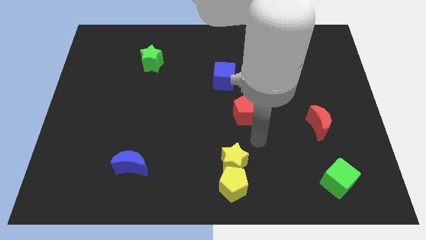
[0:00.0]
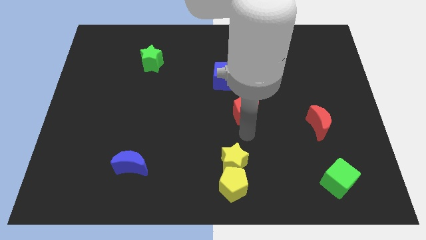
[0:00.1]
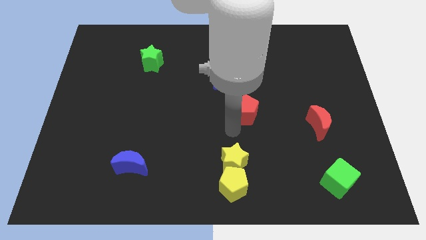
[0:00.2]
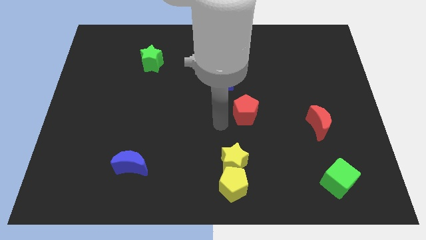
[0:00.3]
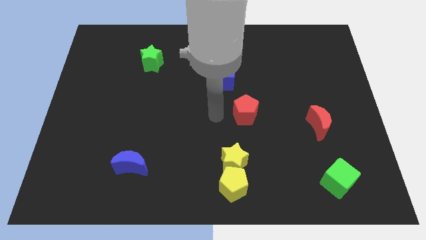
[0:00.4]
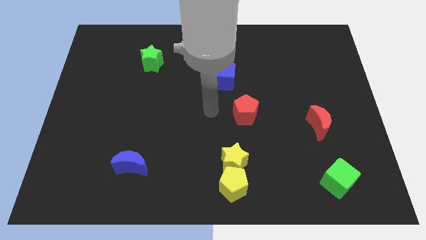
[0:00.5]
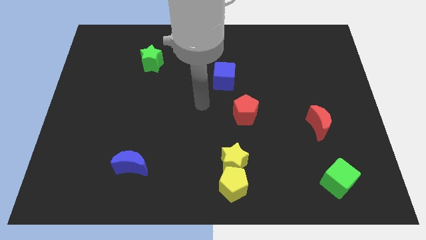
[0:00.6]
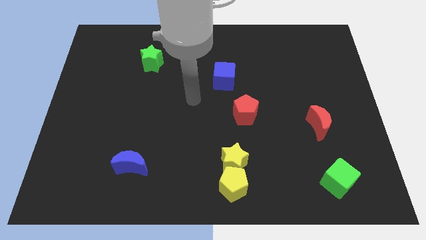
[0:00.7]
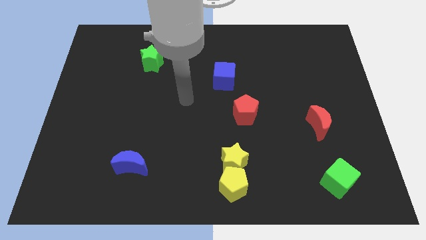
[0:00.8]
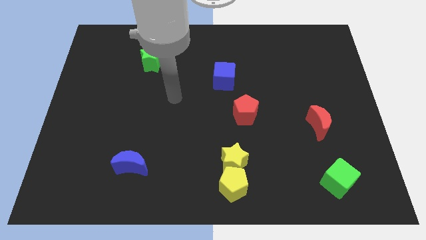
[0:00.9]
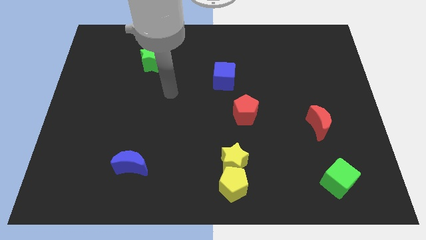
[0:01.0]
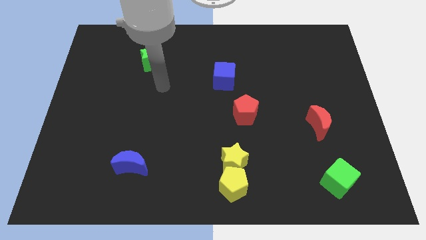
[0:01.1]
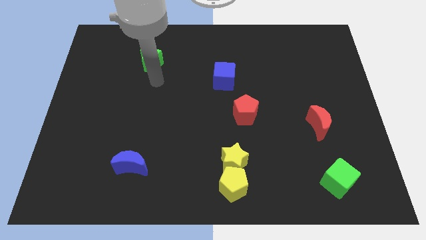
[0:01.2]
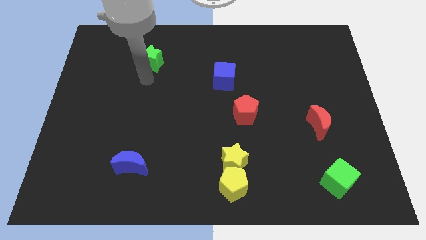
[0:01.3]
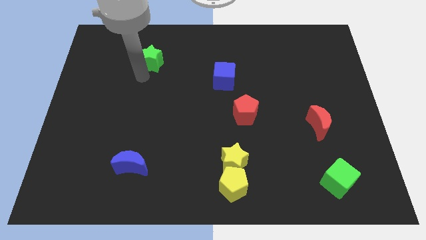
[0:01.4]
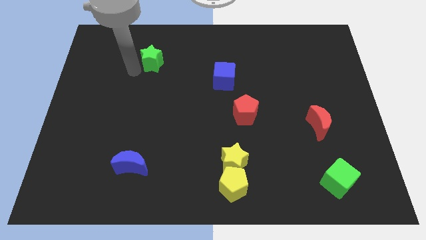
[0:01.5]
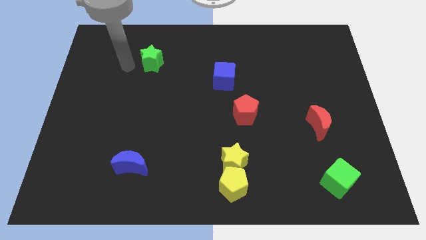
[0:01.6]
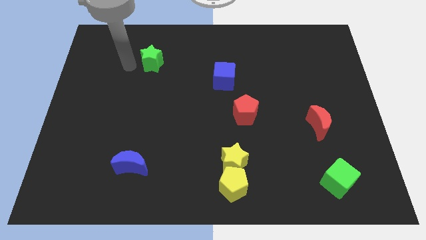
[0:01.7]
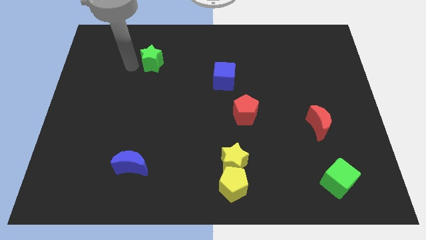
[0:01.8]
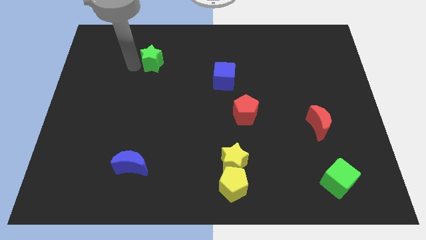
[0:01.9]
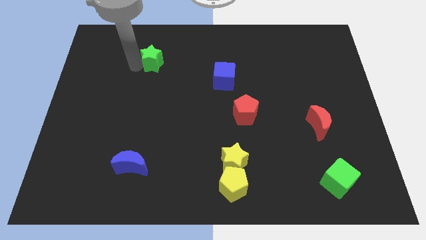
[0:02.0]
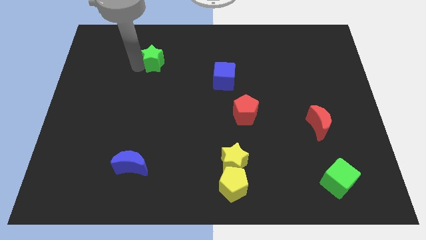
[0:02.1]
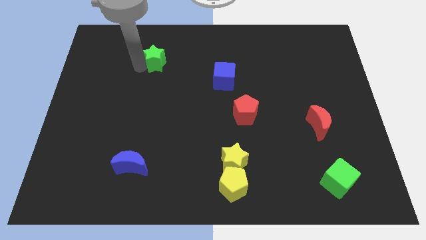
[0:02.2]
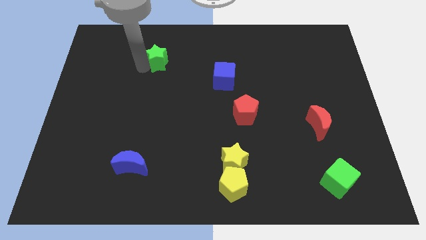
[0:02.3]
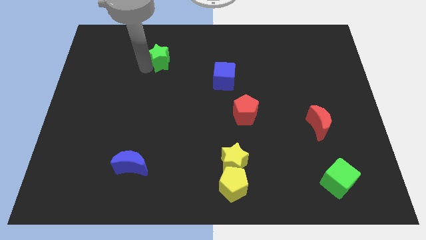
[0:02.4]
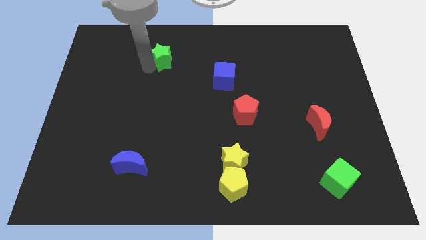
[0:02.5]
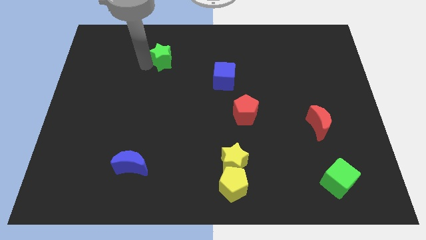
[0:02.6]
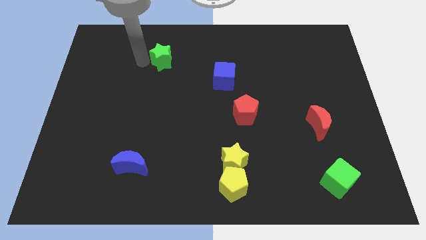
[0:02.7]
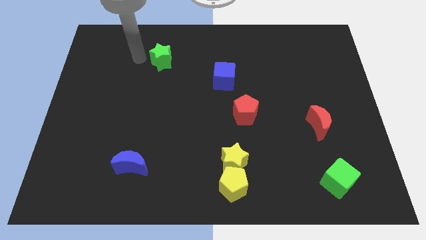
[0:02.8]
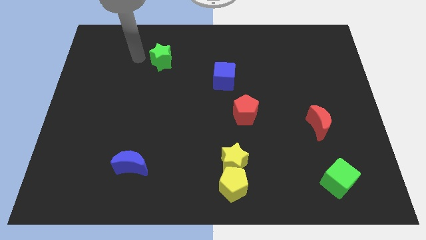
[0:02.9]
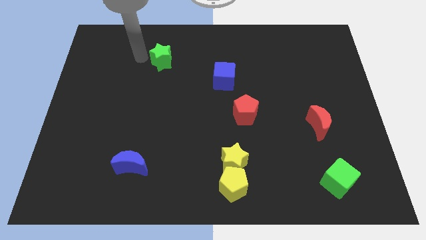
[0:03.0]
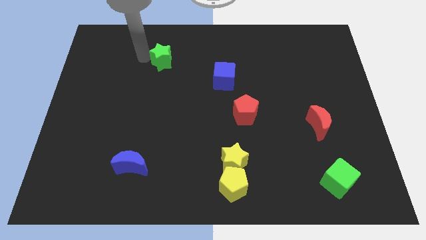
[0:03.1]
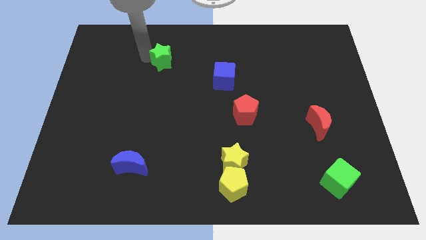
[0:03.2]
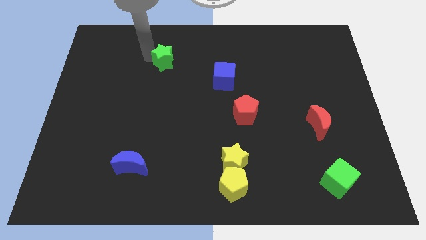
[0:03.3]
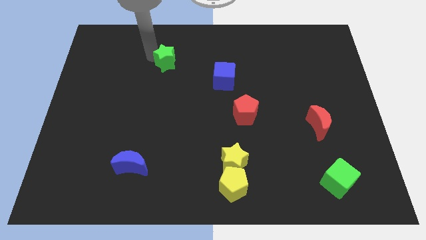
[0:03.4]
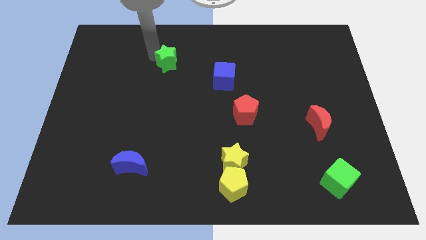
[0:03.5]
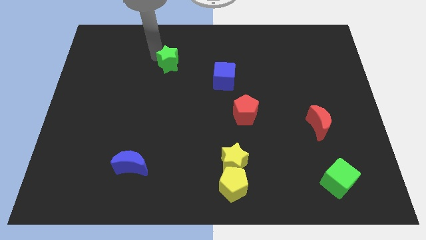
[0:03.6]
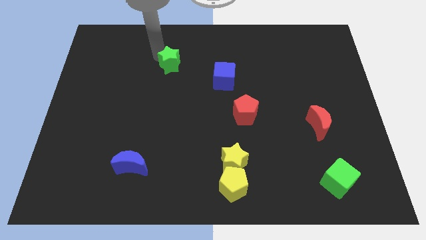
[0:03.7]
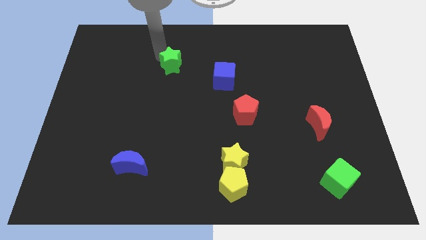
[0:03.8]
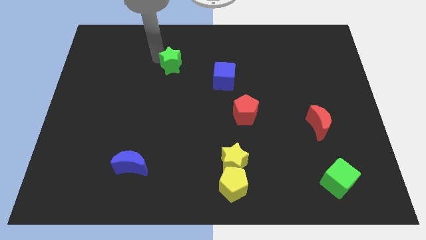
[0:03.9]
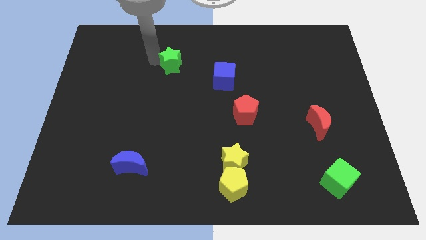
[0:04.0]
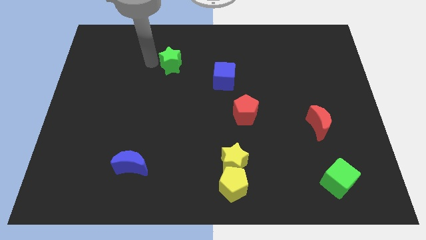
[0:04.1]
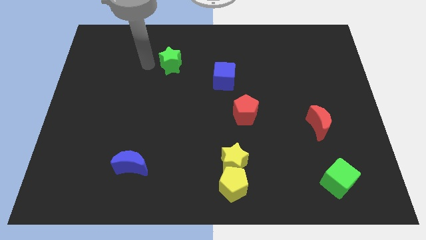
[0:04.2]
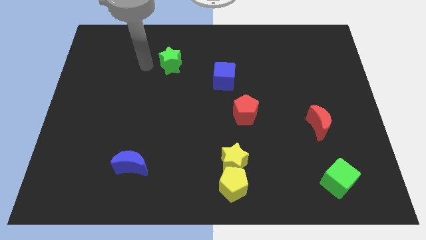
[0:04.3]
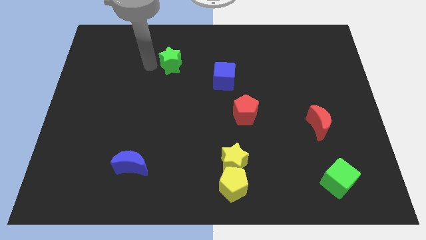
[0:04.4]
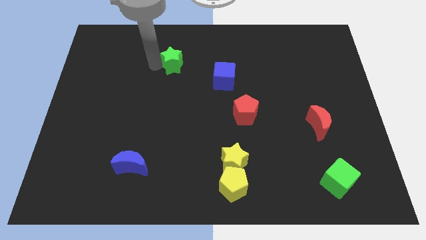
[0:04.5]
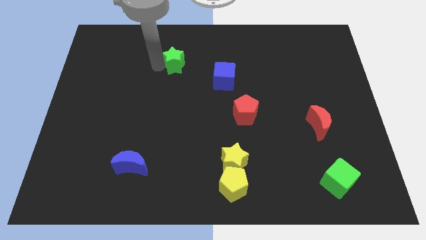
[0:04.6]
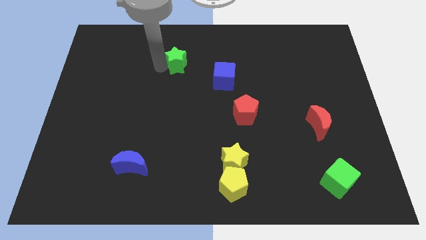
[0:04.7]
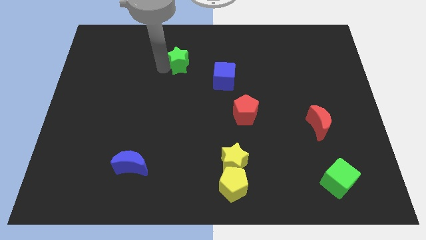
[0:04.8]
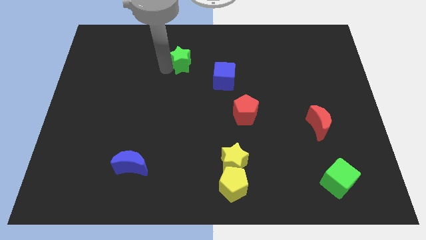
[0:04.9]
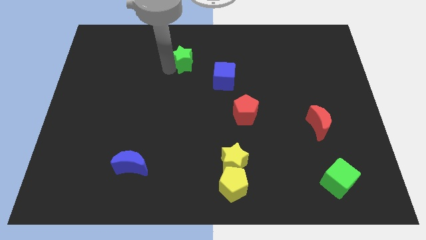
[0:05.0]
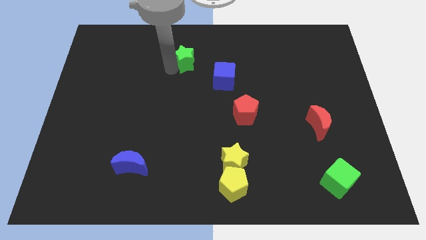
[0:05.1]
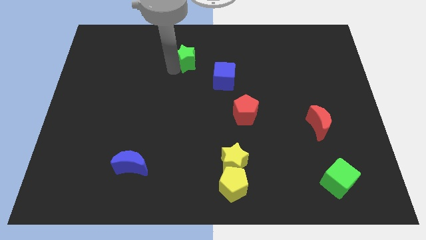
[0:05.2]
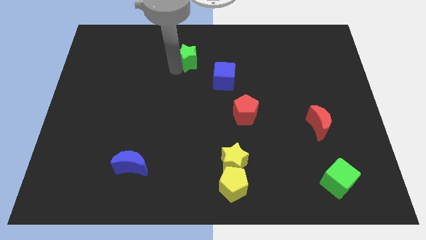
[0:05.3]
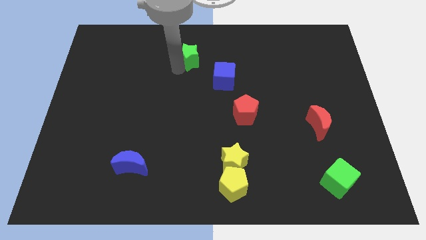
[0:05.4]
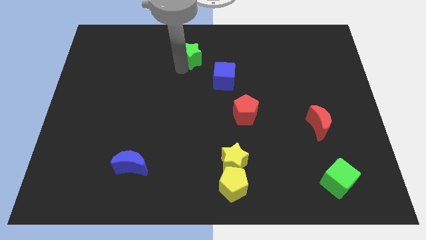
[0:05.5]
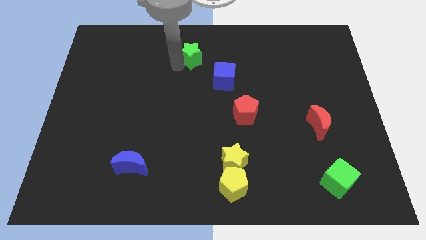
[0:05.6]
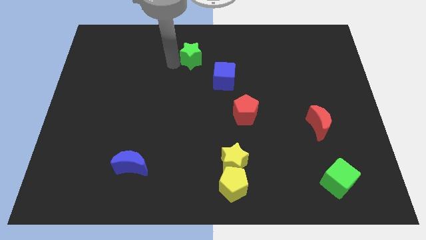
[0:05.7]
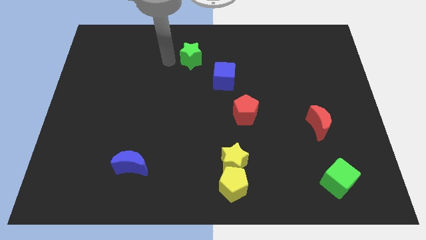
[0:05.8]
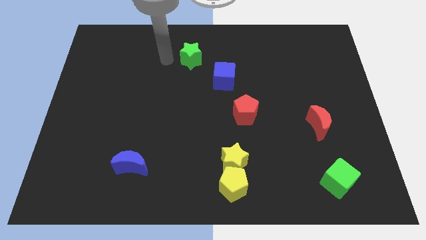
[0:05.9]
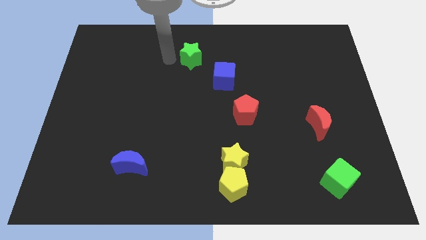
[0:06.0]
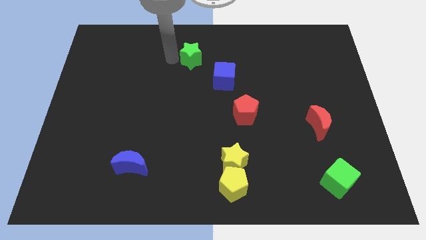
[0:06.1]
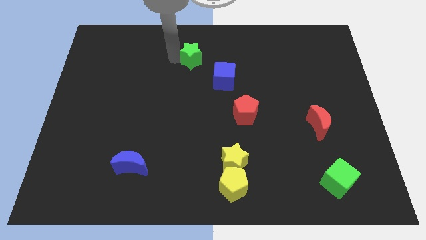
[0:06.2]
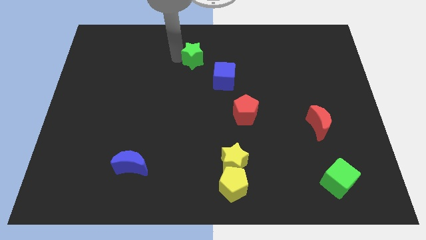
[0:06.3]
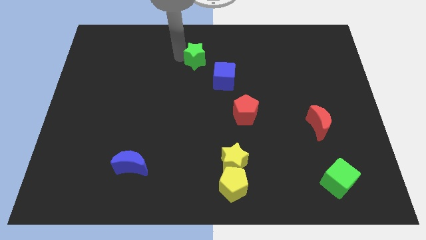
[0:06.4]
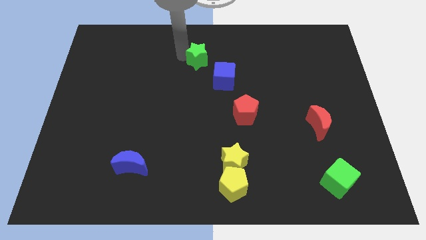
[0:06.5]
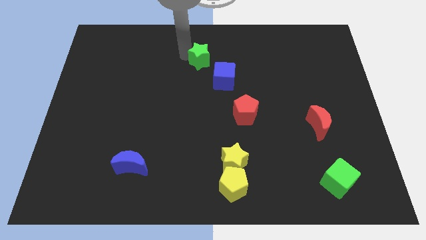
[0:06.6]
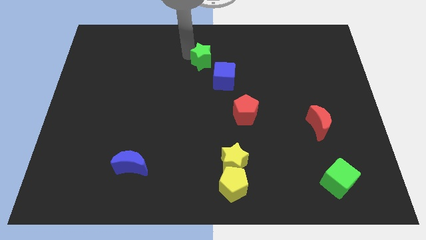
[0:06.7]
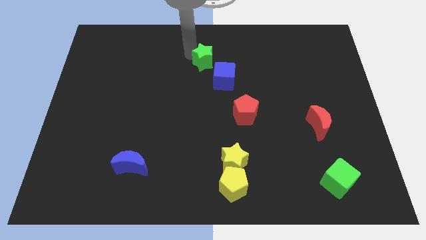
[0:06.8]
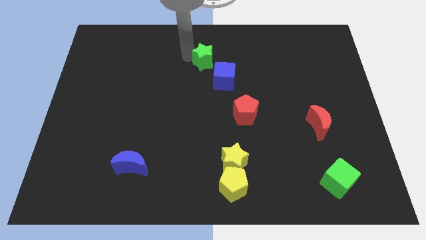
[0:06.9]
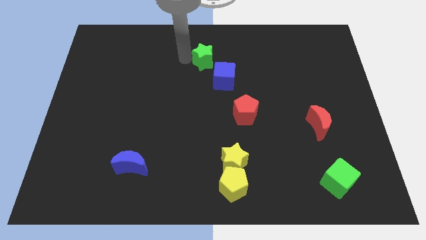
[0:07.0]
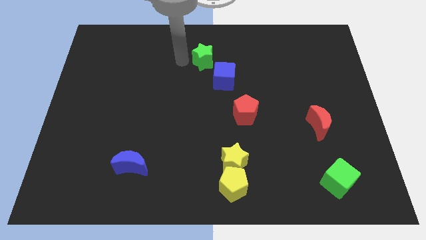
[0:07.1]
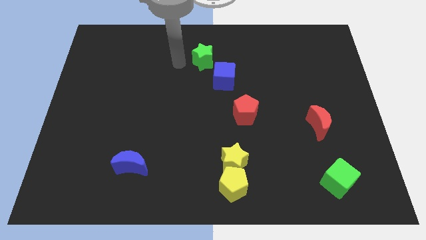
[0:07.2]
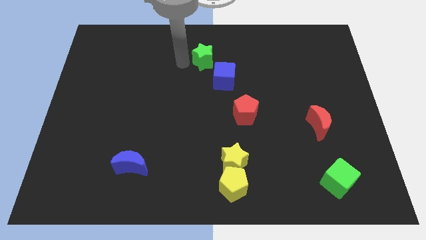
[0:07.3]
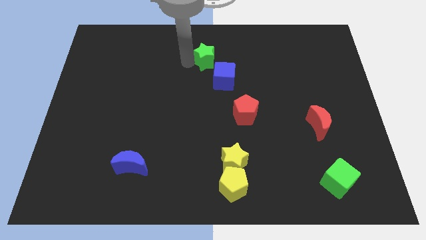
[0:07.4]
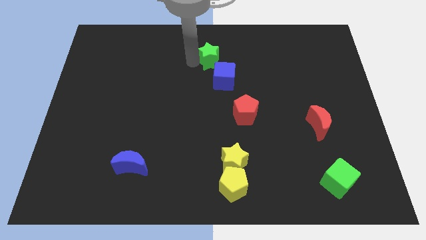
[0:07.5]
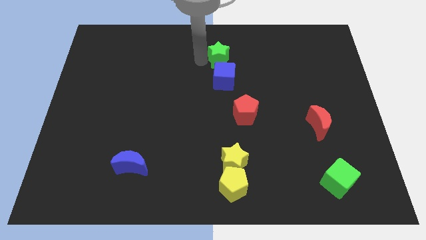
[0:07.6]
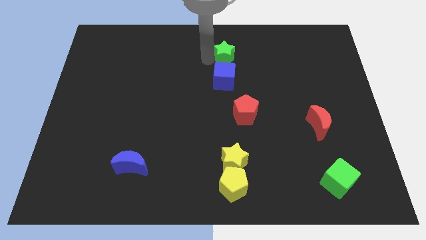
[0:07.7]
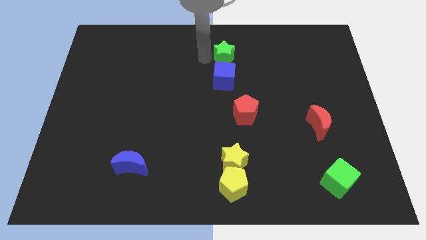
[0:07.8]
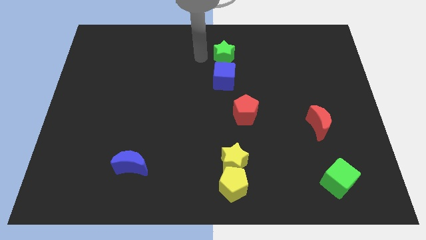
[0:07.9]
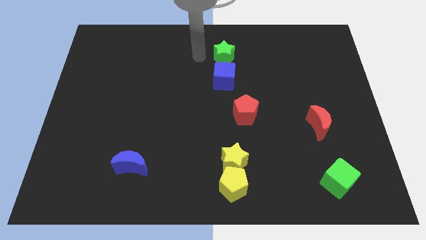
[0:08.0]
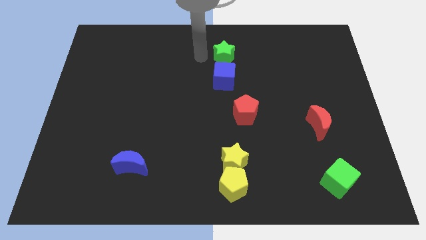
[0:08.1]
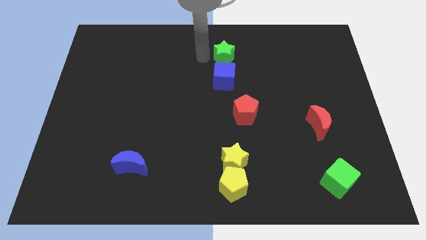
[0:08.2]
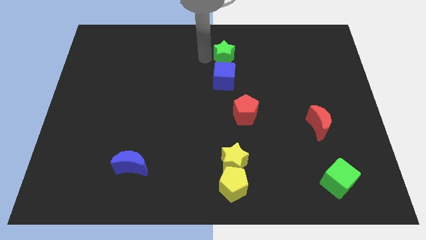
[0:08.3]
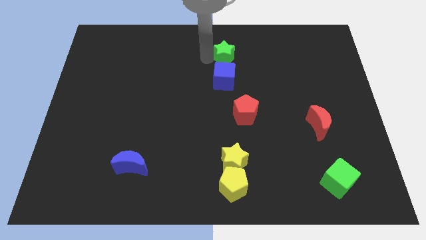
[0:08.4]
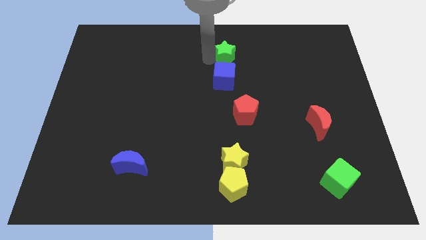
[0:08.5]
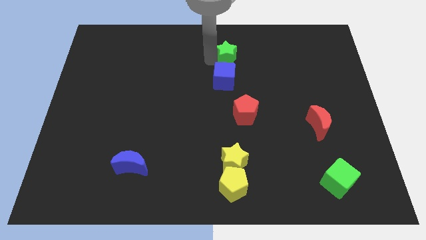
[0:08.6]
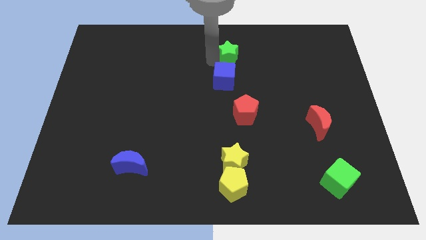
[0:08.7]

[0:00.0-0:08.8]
push the green star right
